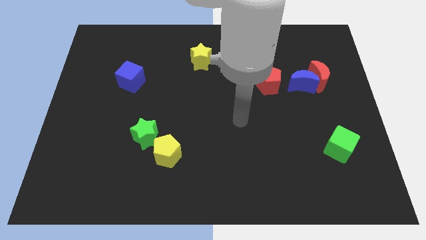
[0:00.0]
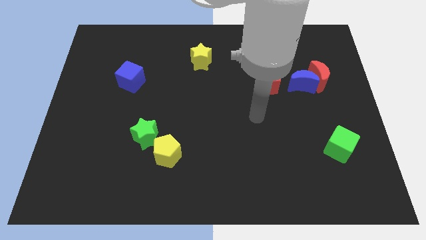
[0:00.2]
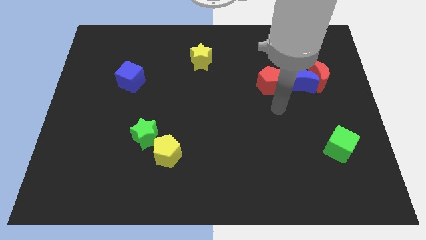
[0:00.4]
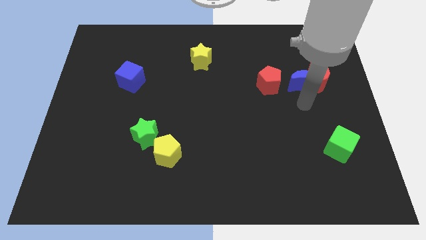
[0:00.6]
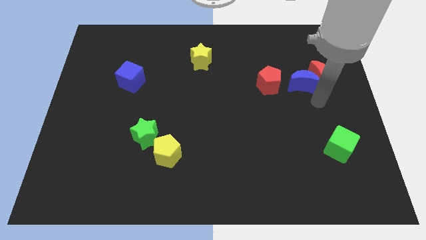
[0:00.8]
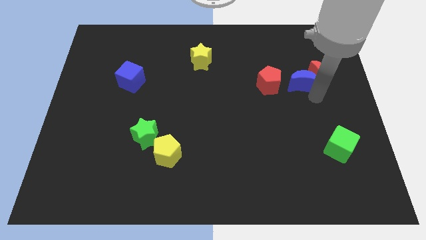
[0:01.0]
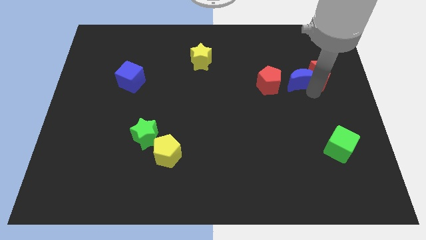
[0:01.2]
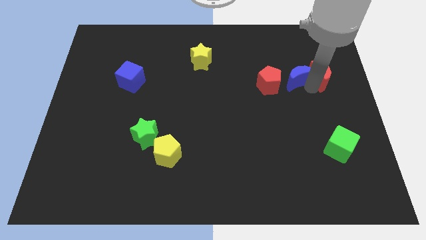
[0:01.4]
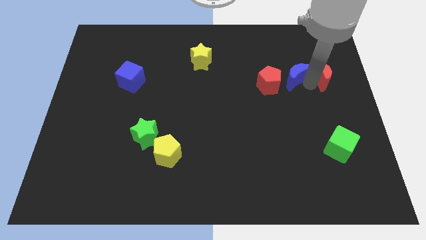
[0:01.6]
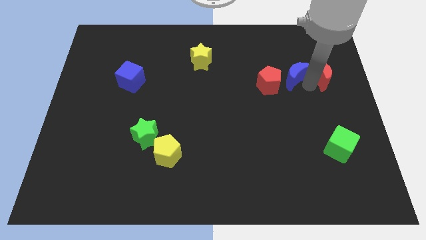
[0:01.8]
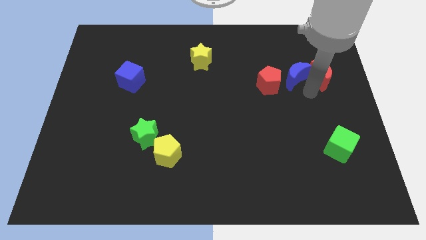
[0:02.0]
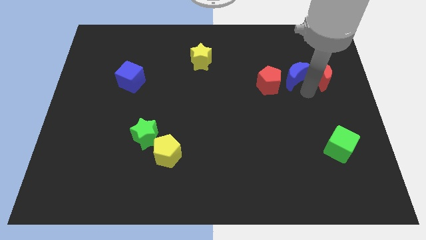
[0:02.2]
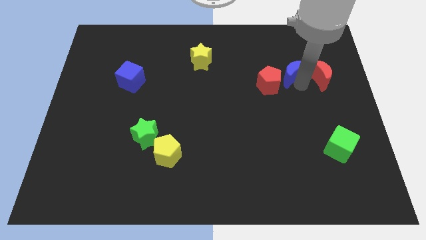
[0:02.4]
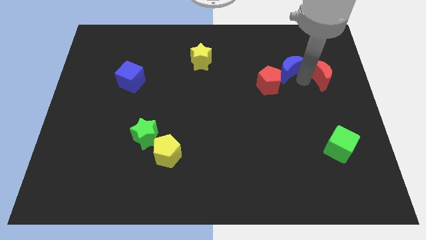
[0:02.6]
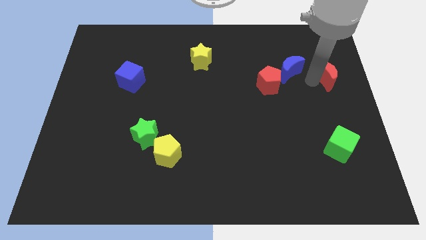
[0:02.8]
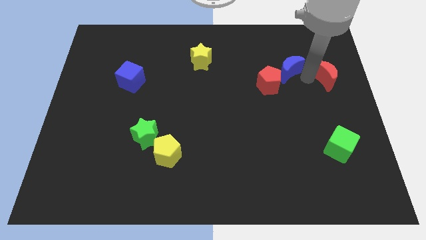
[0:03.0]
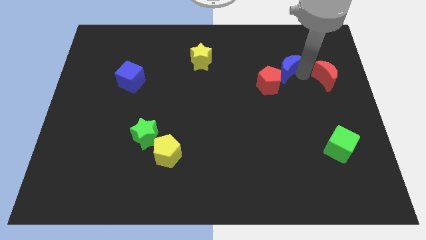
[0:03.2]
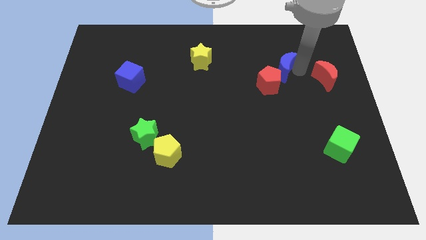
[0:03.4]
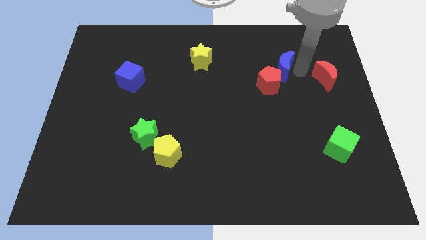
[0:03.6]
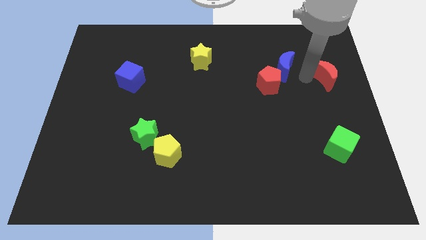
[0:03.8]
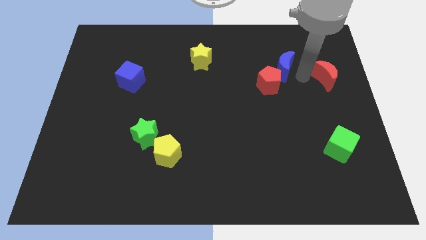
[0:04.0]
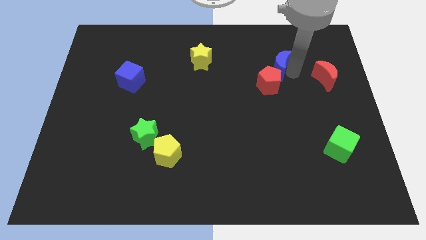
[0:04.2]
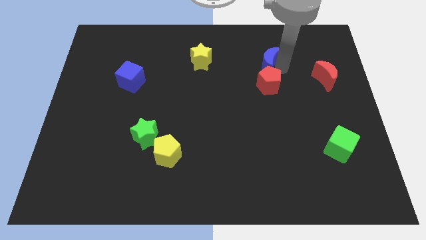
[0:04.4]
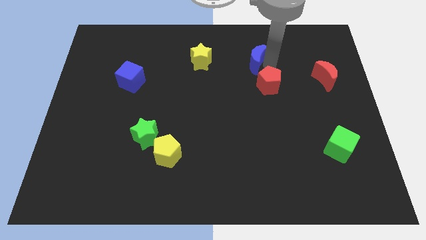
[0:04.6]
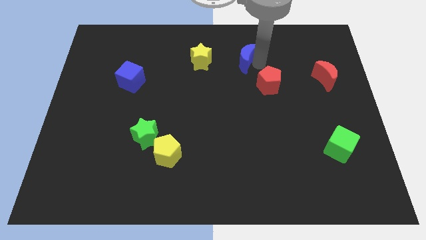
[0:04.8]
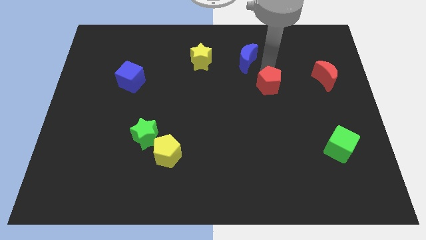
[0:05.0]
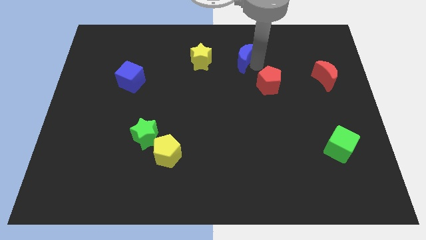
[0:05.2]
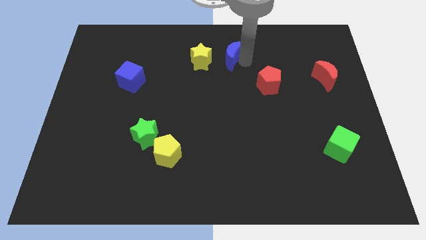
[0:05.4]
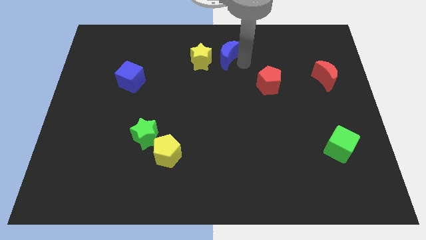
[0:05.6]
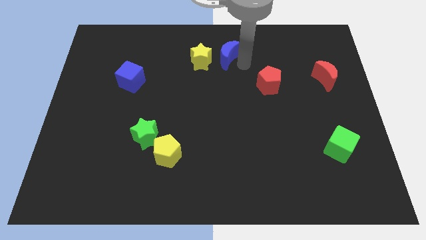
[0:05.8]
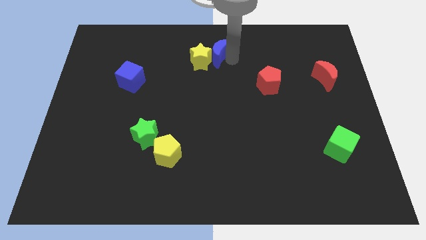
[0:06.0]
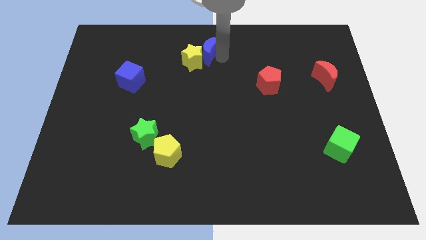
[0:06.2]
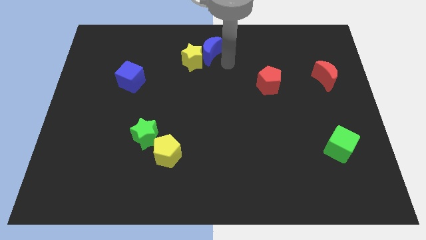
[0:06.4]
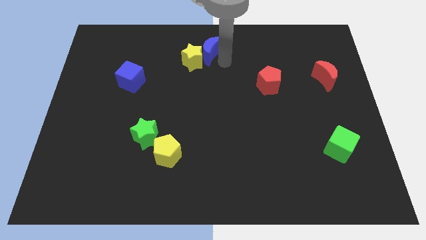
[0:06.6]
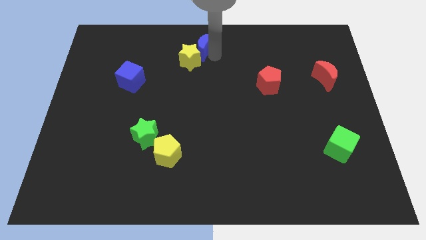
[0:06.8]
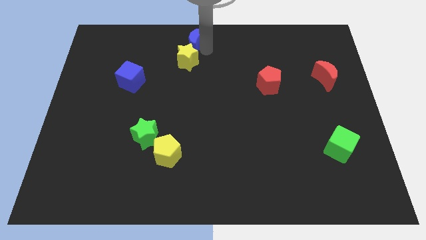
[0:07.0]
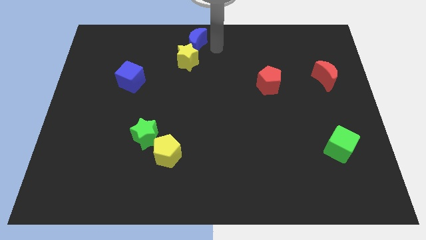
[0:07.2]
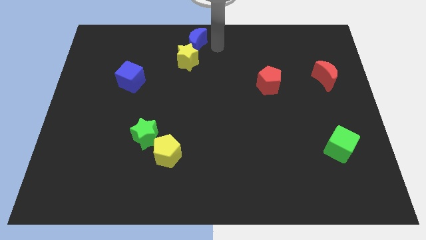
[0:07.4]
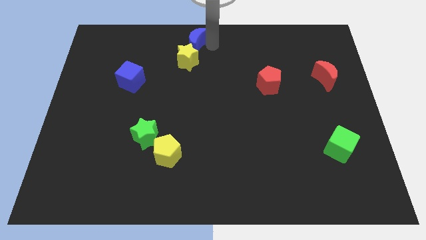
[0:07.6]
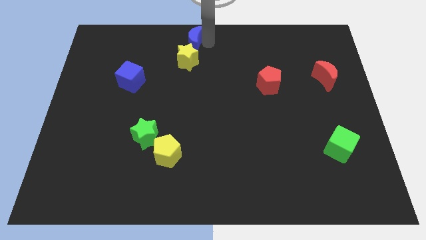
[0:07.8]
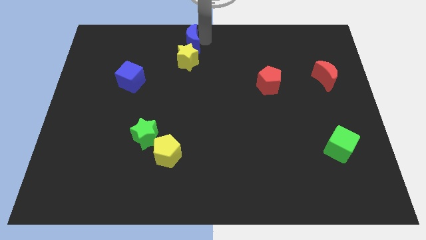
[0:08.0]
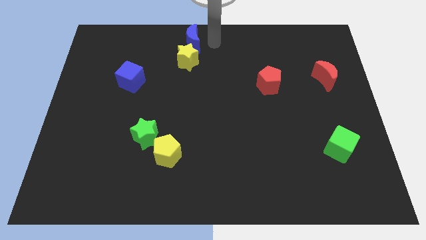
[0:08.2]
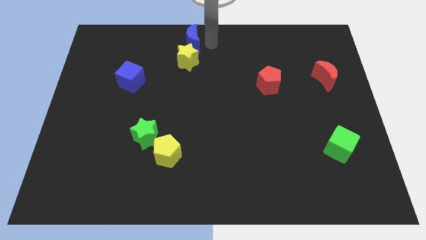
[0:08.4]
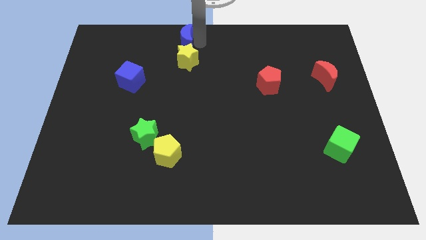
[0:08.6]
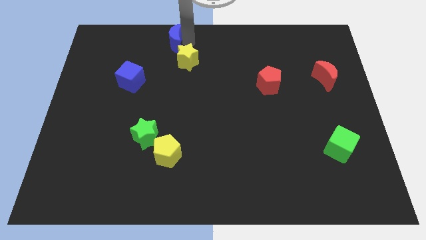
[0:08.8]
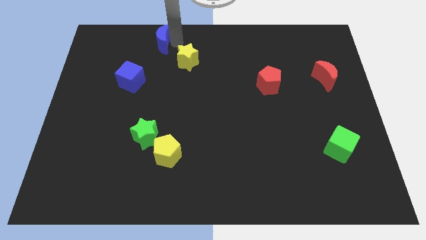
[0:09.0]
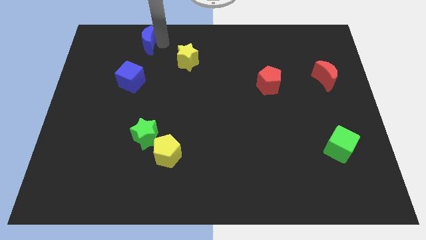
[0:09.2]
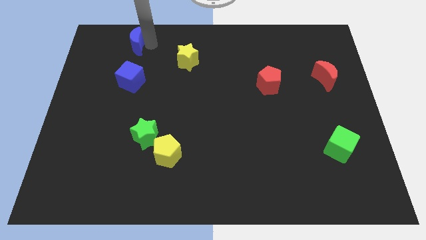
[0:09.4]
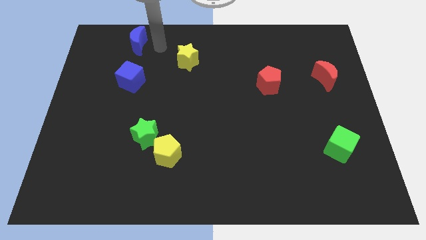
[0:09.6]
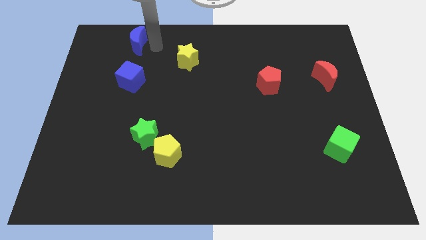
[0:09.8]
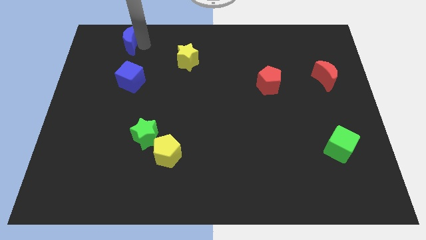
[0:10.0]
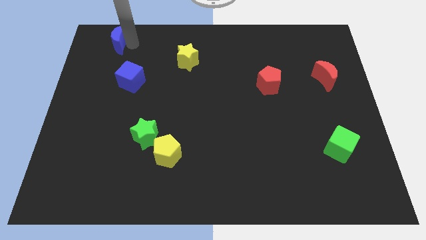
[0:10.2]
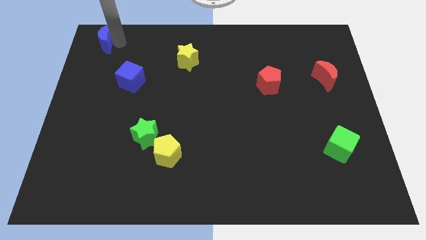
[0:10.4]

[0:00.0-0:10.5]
move the blue moon to the upper left corner

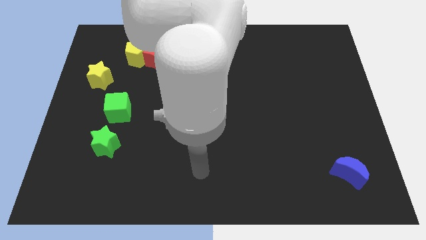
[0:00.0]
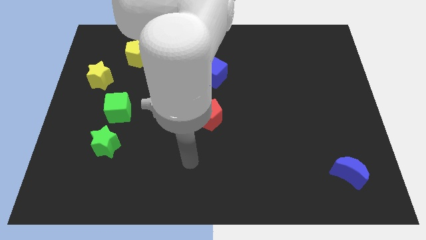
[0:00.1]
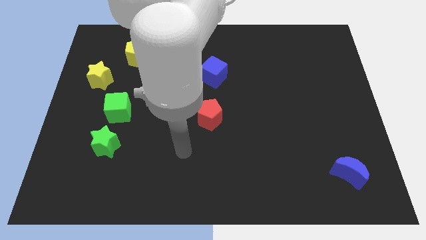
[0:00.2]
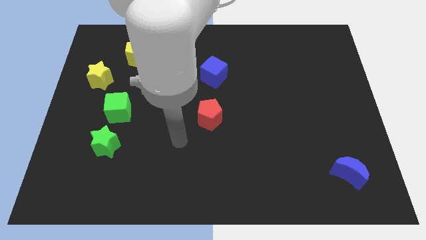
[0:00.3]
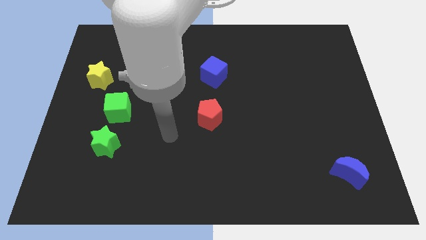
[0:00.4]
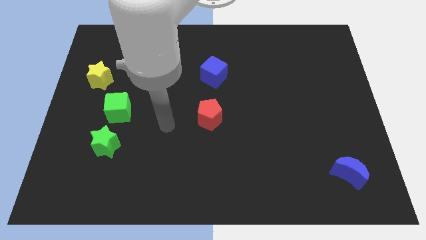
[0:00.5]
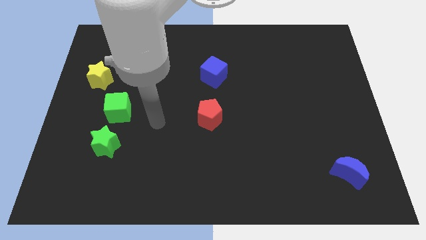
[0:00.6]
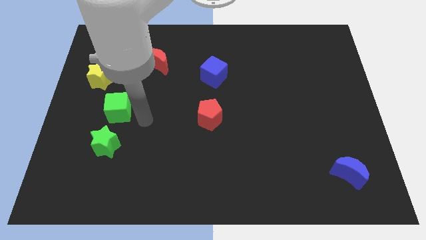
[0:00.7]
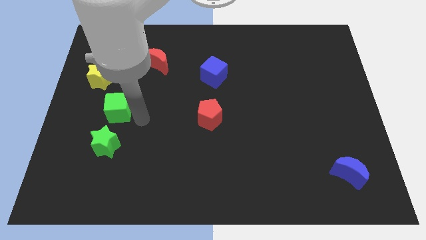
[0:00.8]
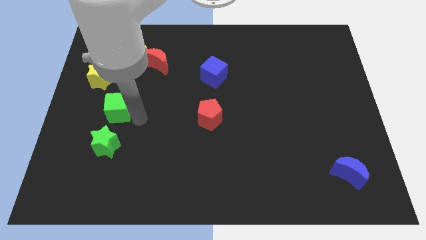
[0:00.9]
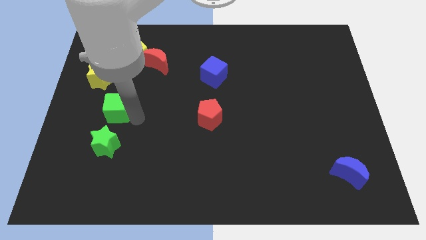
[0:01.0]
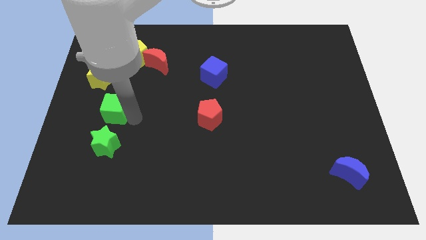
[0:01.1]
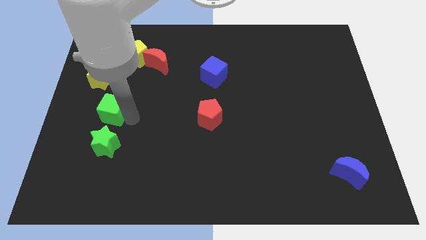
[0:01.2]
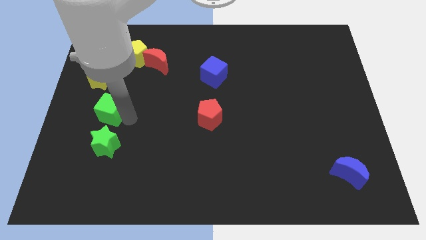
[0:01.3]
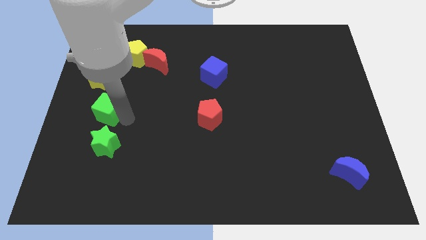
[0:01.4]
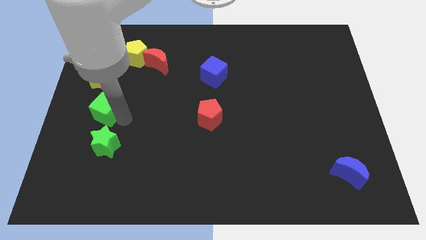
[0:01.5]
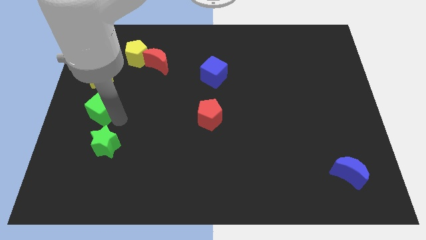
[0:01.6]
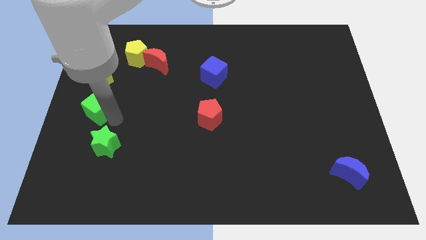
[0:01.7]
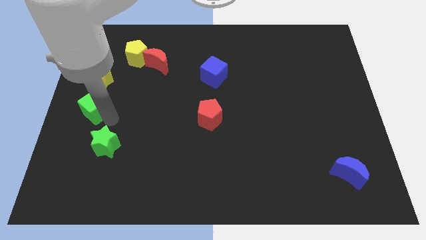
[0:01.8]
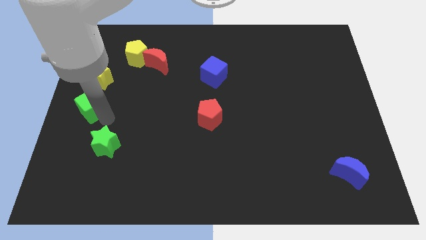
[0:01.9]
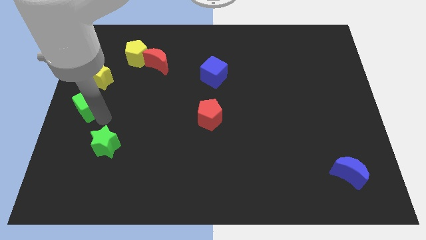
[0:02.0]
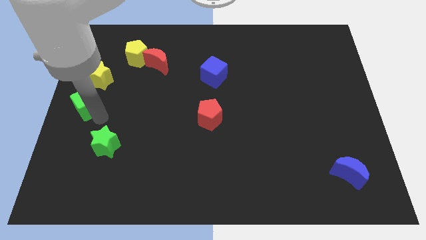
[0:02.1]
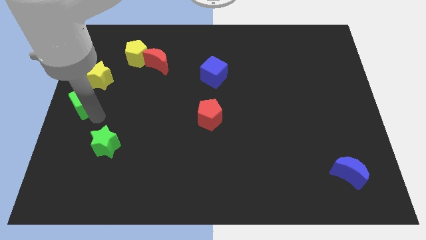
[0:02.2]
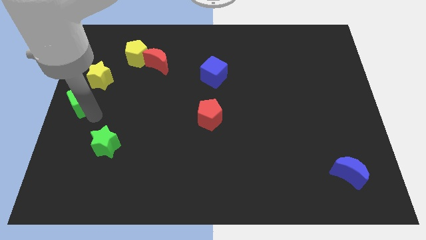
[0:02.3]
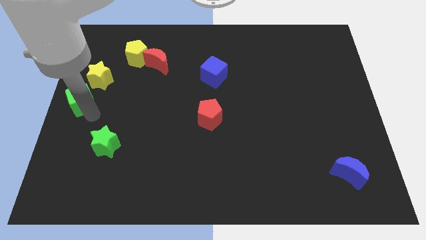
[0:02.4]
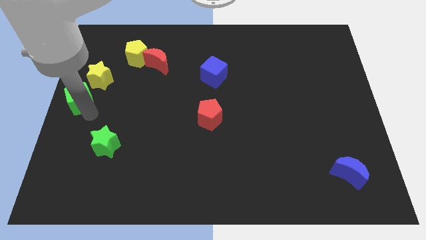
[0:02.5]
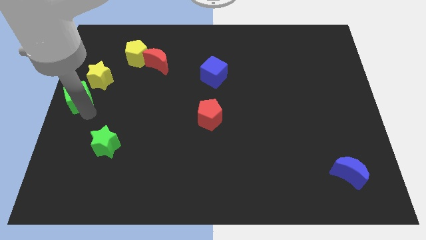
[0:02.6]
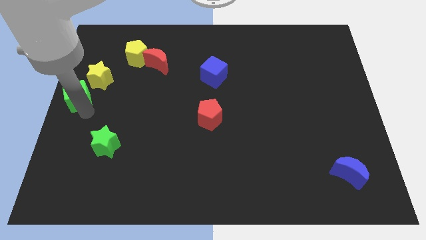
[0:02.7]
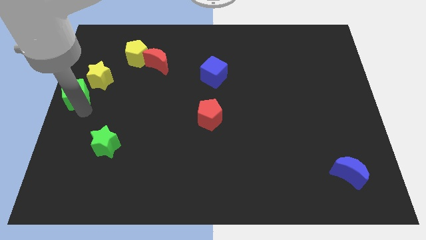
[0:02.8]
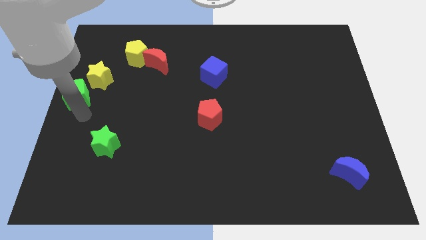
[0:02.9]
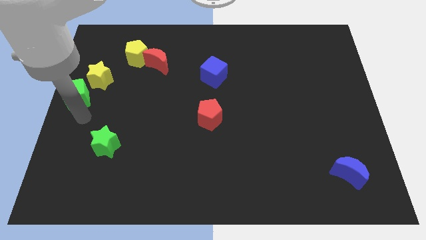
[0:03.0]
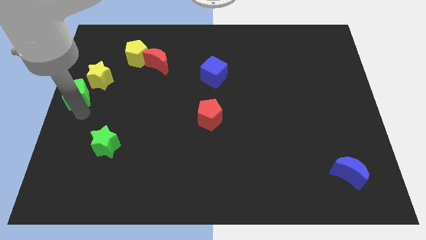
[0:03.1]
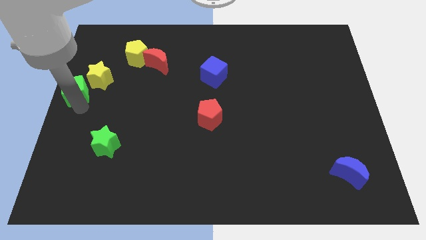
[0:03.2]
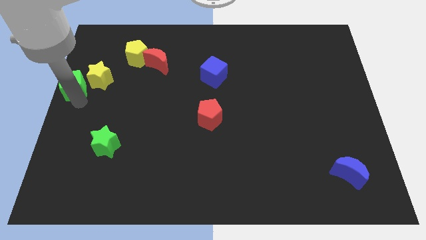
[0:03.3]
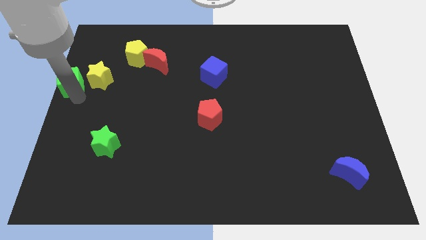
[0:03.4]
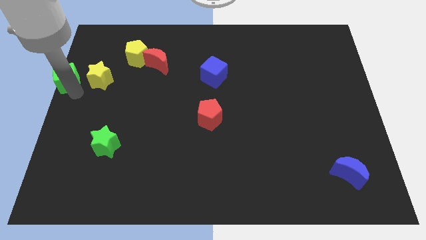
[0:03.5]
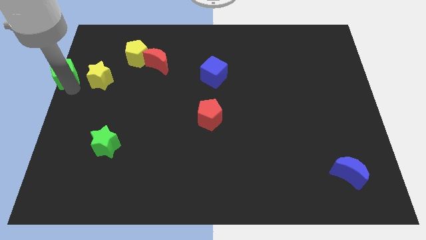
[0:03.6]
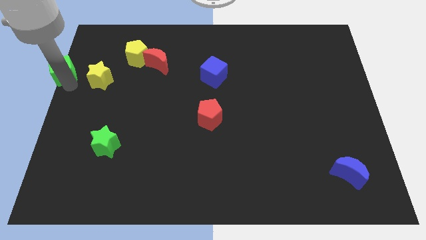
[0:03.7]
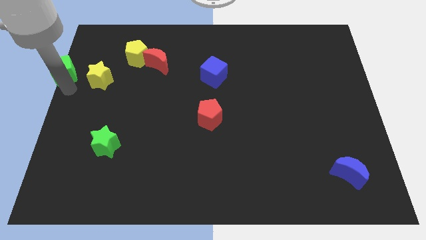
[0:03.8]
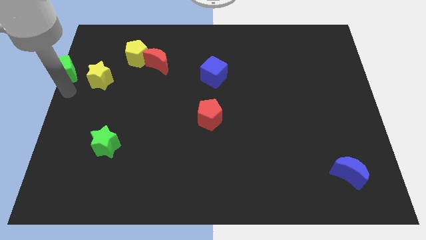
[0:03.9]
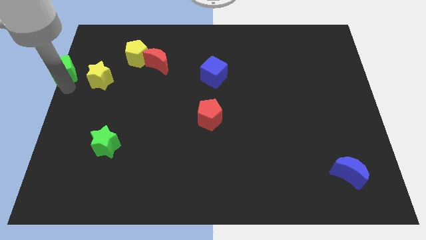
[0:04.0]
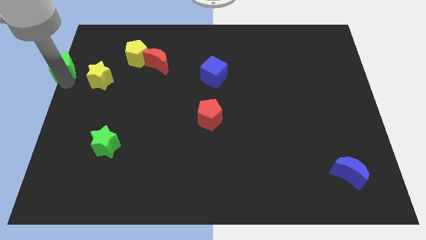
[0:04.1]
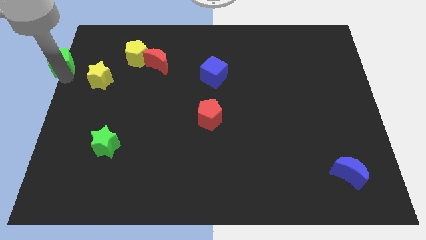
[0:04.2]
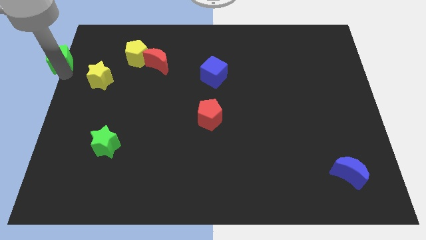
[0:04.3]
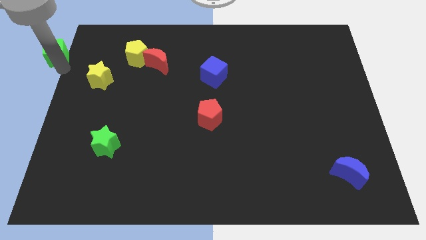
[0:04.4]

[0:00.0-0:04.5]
put the green cube to the top left of the board
